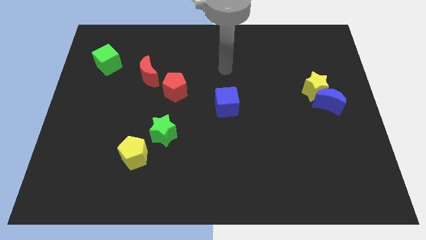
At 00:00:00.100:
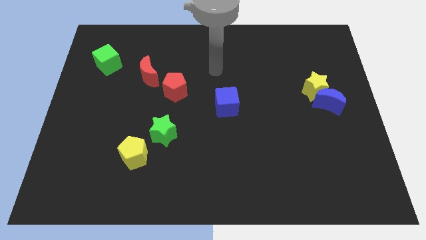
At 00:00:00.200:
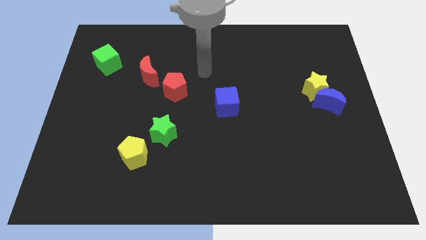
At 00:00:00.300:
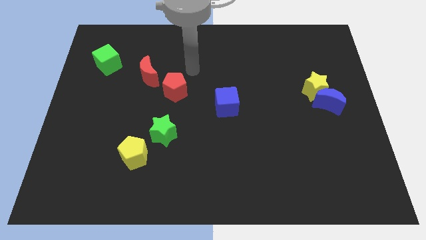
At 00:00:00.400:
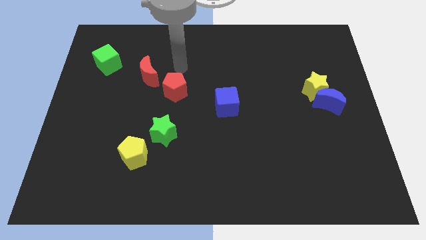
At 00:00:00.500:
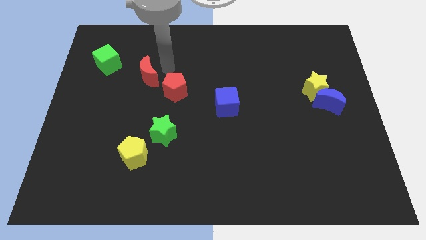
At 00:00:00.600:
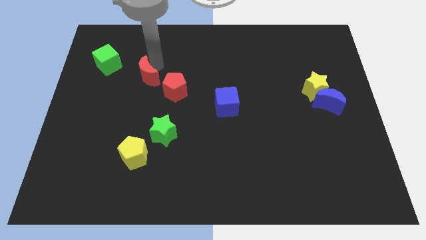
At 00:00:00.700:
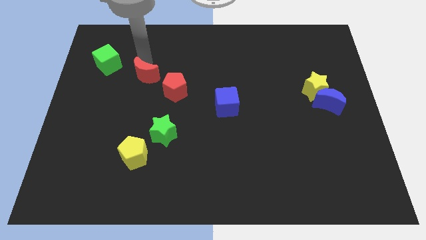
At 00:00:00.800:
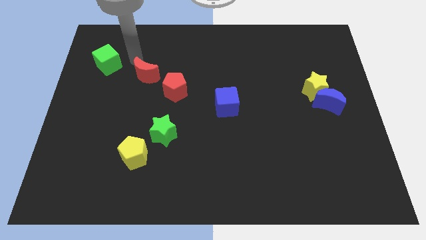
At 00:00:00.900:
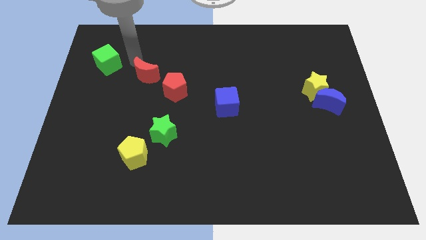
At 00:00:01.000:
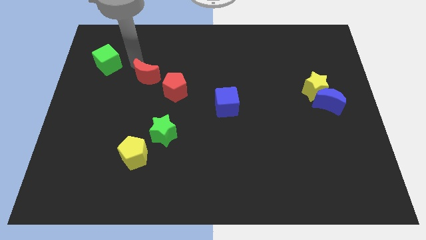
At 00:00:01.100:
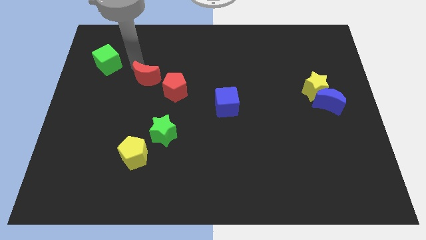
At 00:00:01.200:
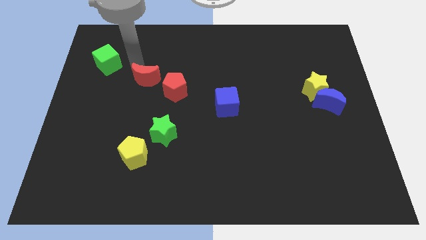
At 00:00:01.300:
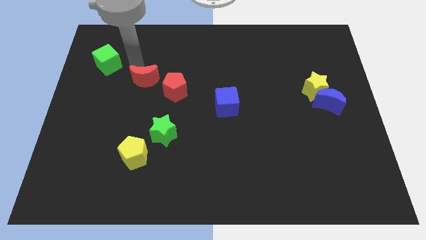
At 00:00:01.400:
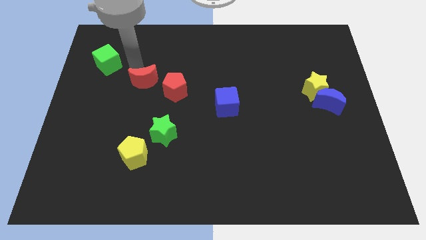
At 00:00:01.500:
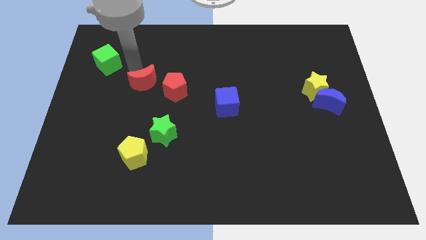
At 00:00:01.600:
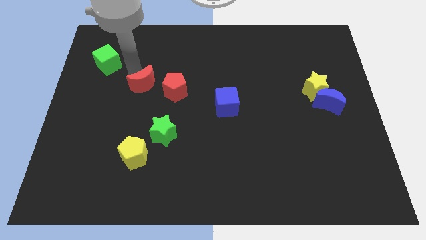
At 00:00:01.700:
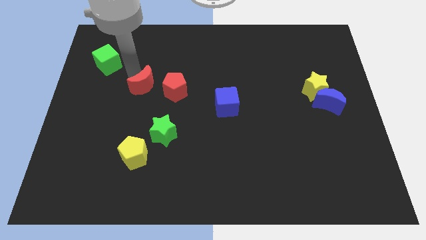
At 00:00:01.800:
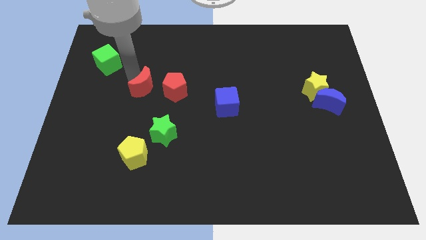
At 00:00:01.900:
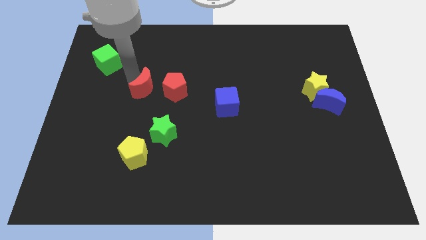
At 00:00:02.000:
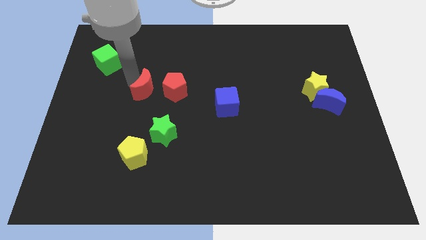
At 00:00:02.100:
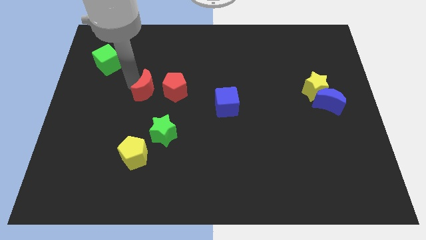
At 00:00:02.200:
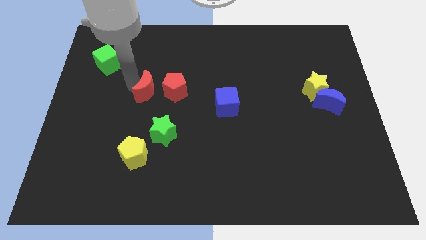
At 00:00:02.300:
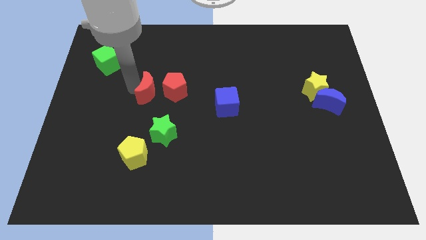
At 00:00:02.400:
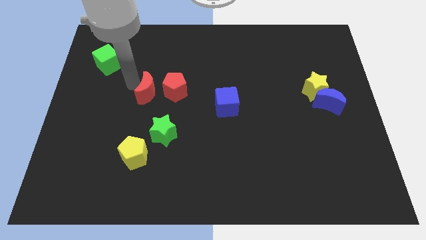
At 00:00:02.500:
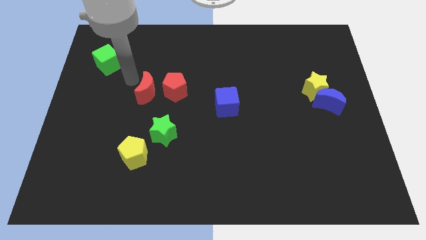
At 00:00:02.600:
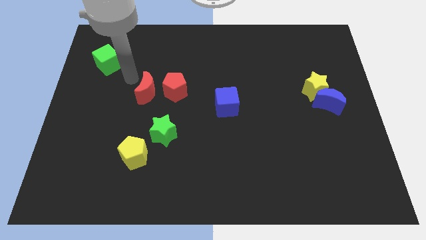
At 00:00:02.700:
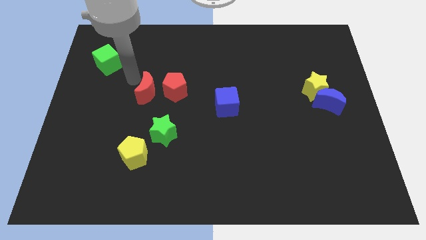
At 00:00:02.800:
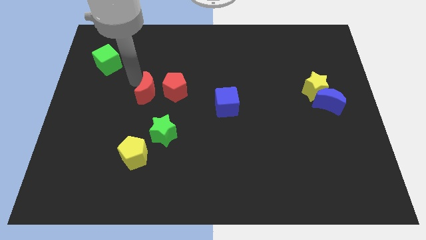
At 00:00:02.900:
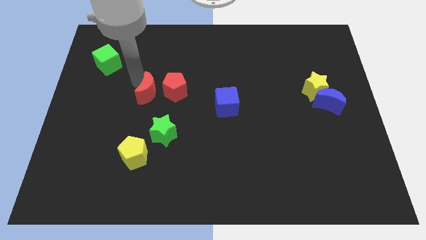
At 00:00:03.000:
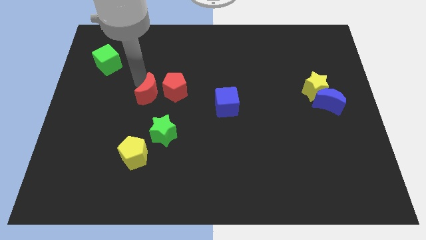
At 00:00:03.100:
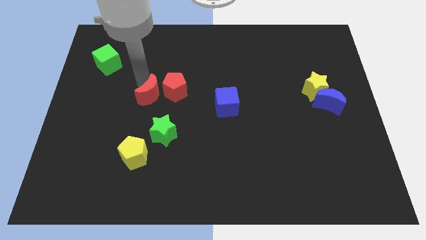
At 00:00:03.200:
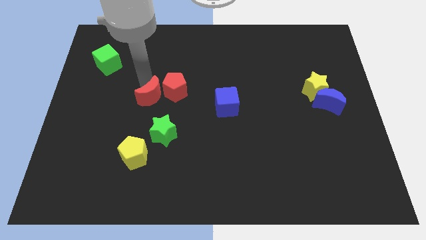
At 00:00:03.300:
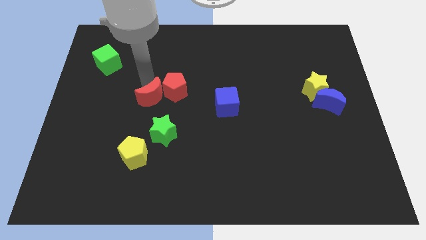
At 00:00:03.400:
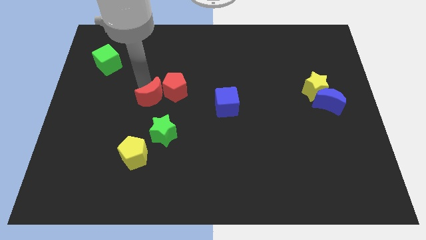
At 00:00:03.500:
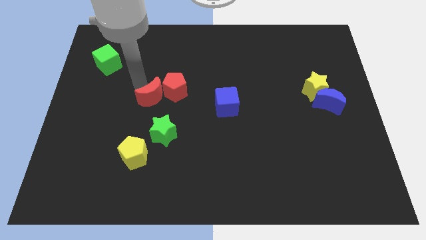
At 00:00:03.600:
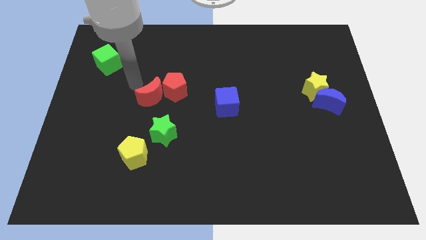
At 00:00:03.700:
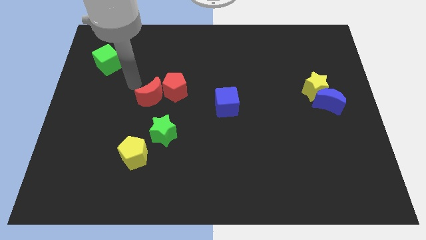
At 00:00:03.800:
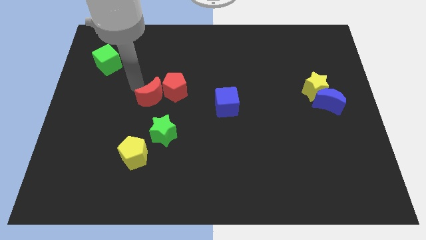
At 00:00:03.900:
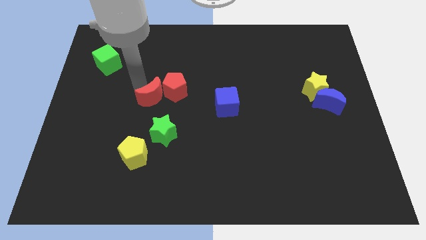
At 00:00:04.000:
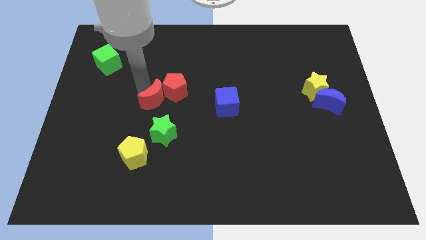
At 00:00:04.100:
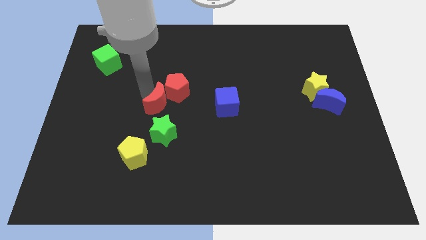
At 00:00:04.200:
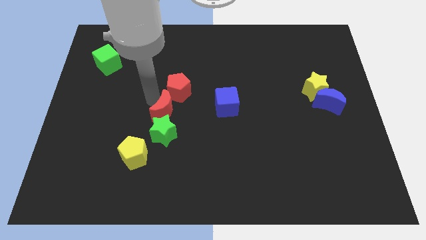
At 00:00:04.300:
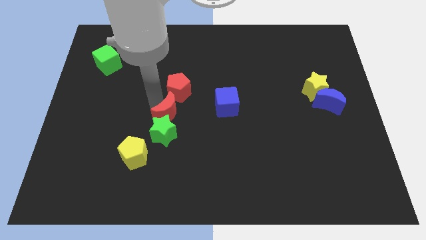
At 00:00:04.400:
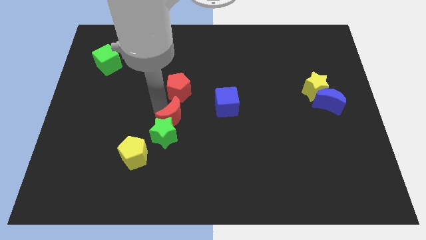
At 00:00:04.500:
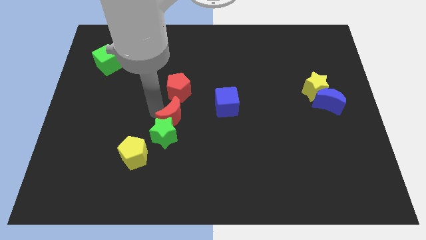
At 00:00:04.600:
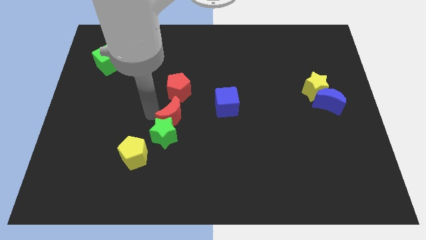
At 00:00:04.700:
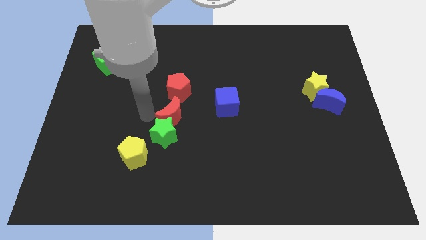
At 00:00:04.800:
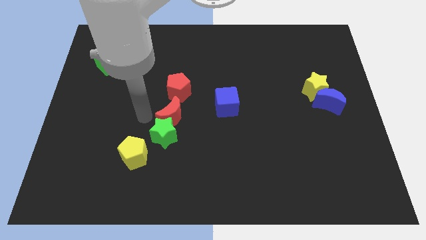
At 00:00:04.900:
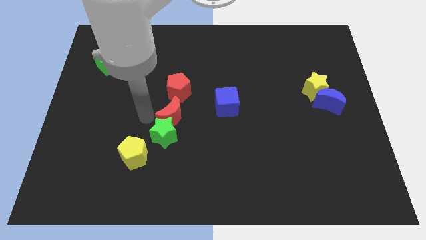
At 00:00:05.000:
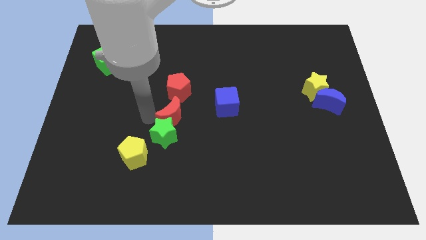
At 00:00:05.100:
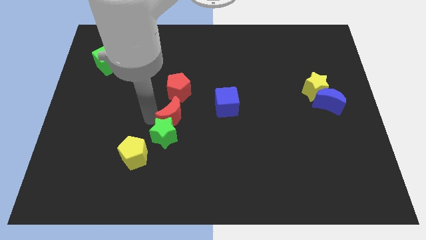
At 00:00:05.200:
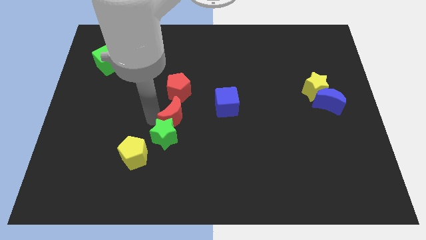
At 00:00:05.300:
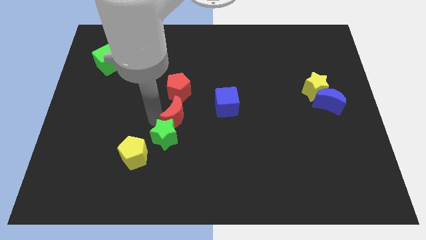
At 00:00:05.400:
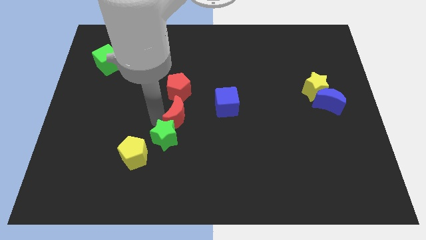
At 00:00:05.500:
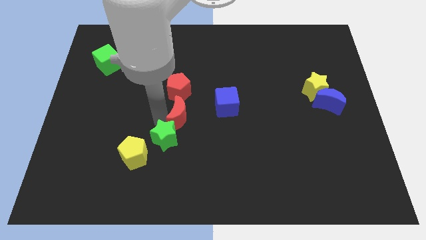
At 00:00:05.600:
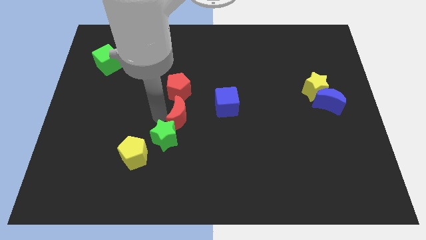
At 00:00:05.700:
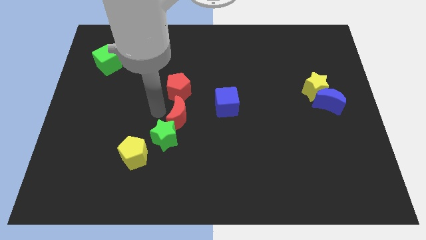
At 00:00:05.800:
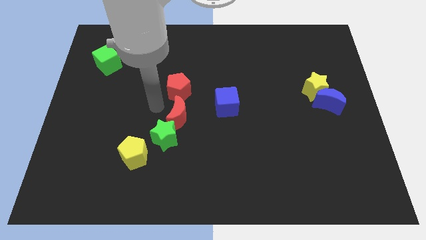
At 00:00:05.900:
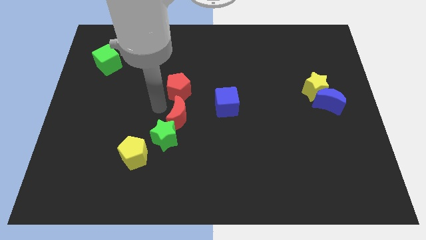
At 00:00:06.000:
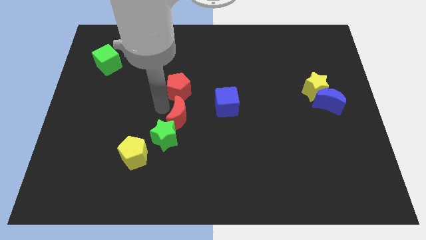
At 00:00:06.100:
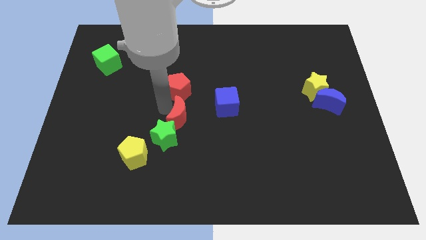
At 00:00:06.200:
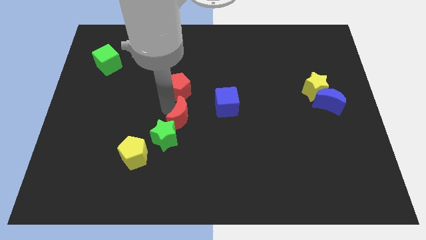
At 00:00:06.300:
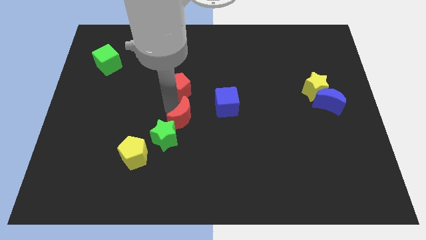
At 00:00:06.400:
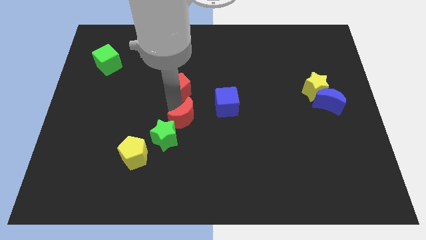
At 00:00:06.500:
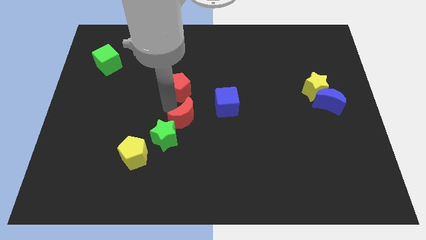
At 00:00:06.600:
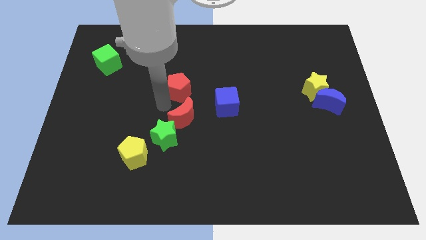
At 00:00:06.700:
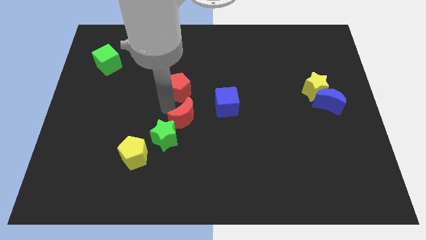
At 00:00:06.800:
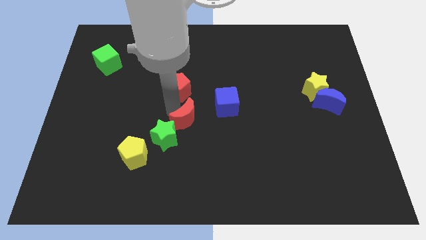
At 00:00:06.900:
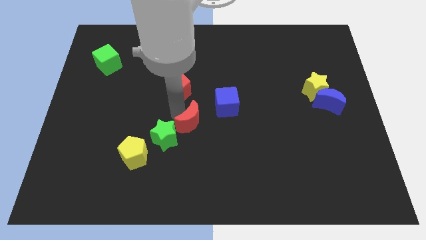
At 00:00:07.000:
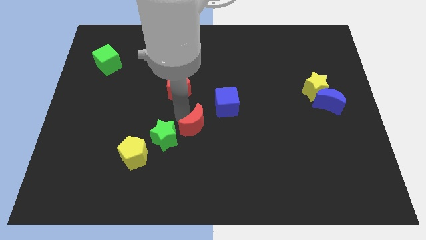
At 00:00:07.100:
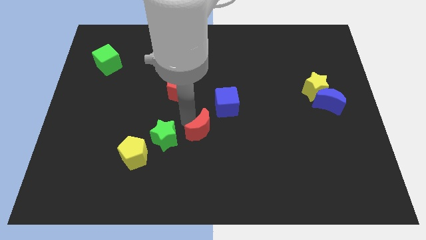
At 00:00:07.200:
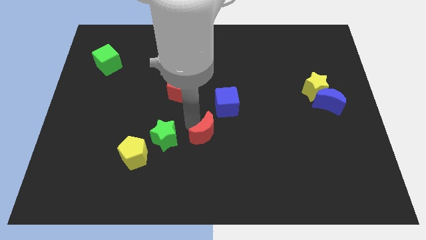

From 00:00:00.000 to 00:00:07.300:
slide the red moon below the blue cube
